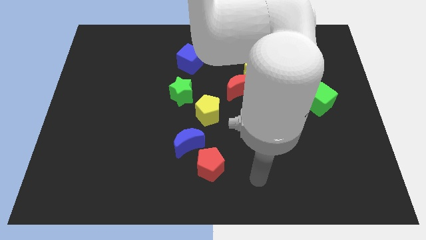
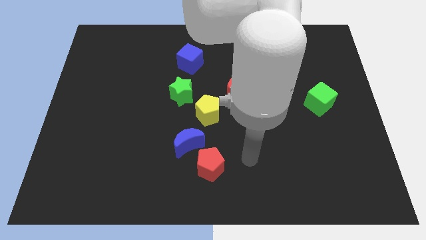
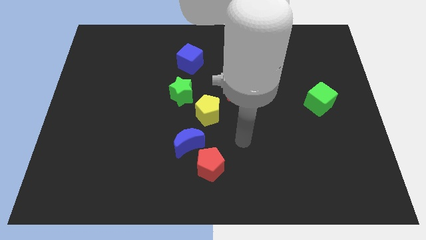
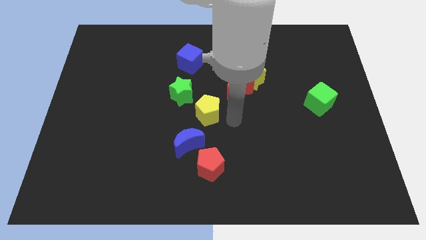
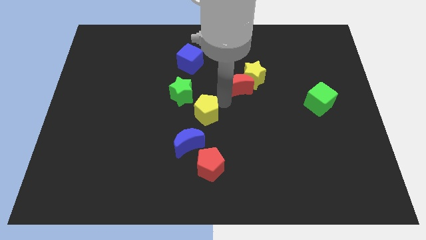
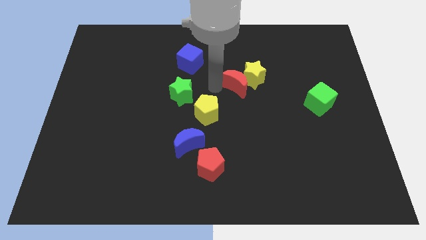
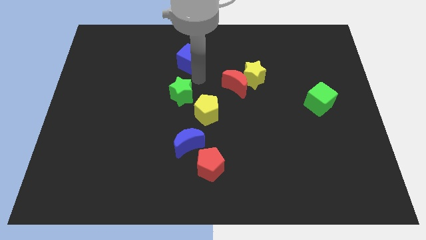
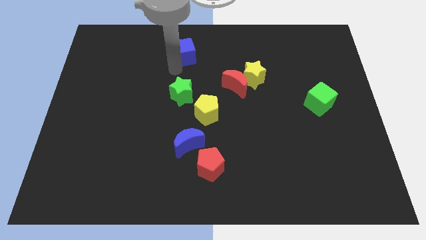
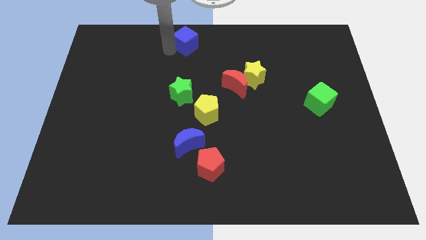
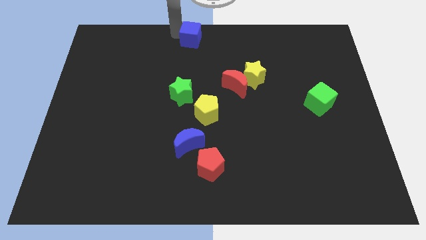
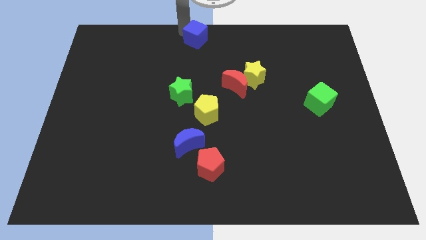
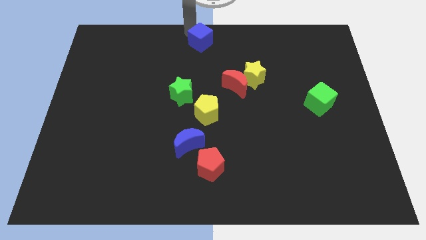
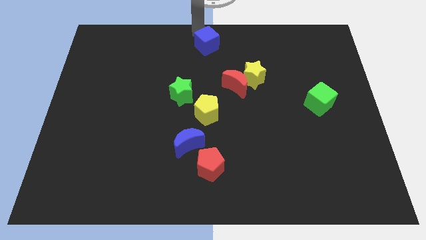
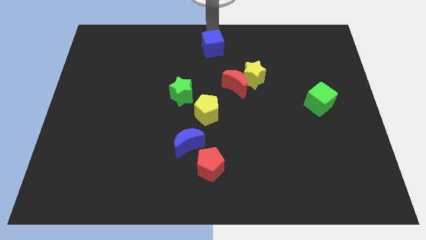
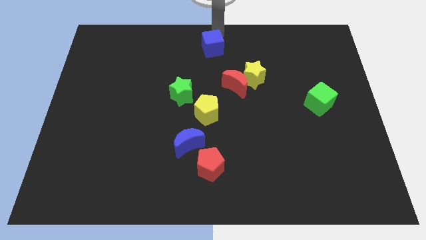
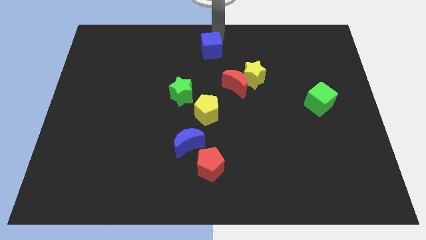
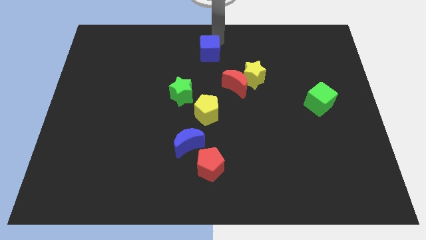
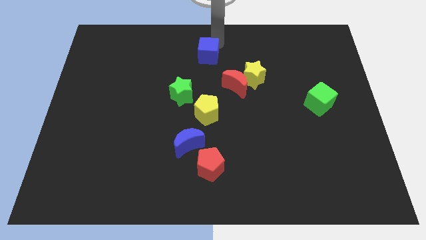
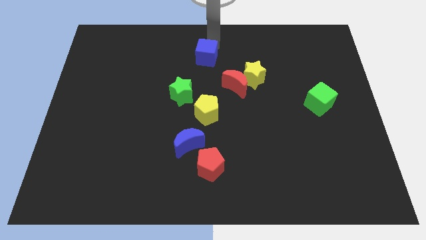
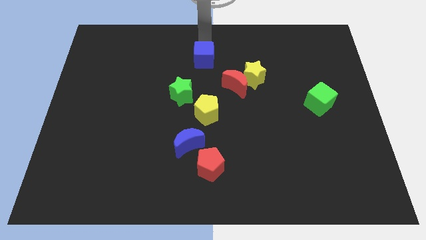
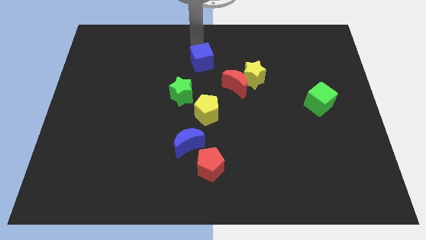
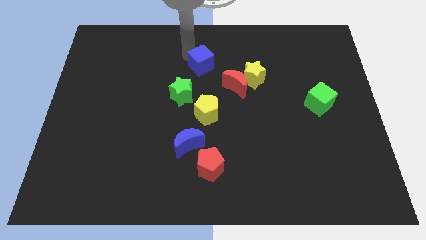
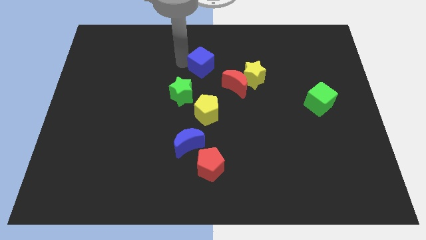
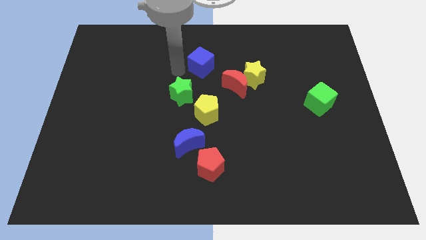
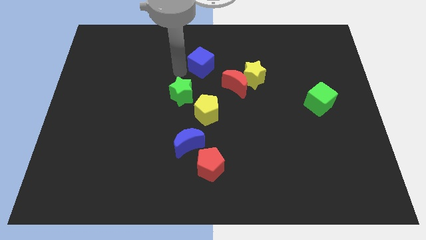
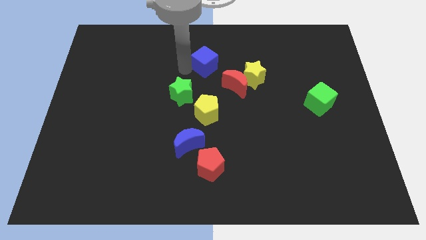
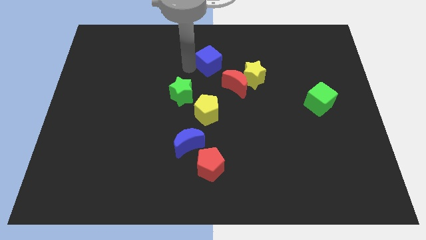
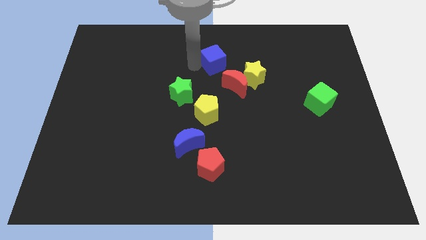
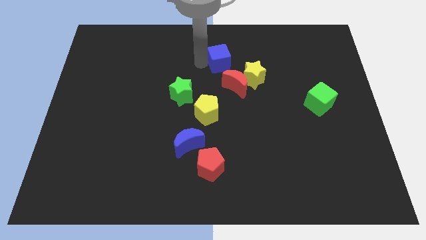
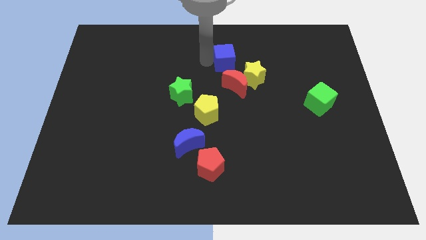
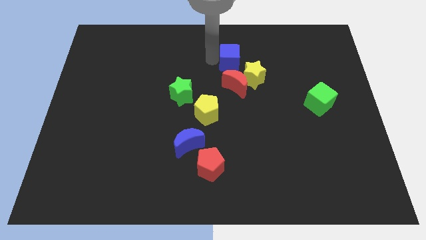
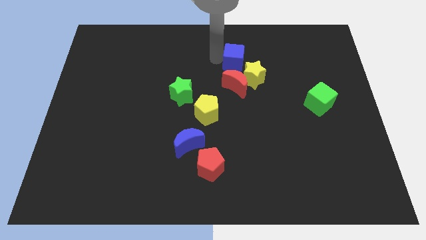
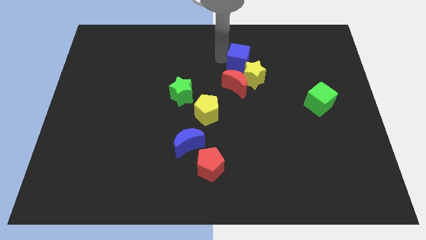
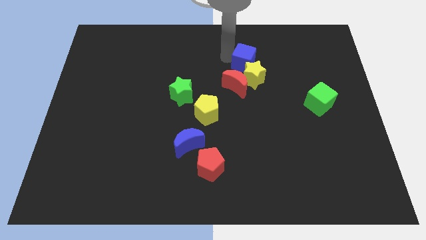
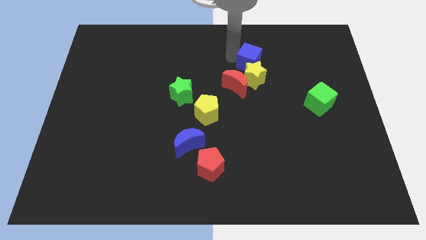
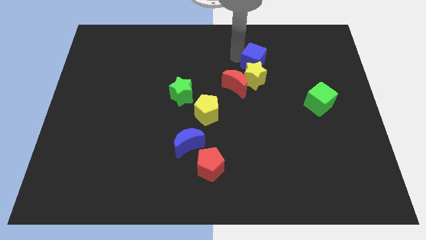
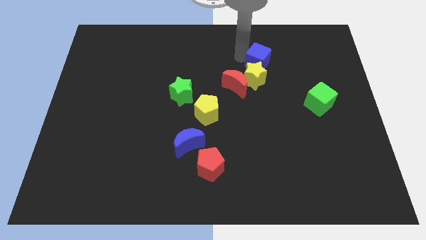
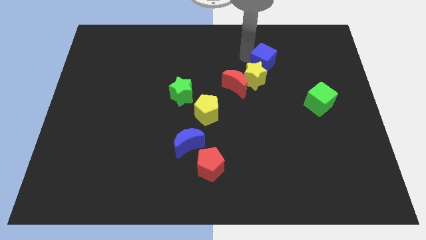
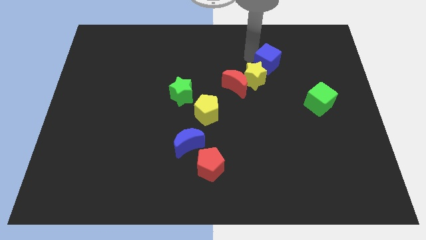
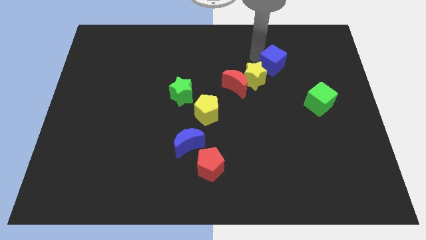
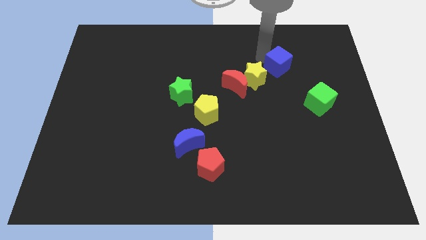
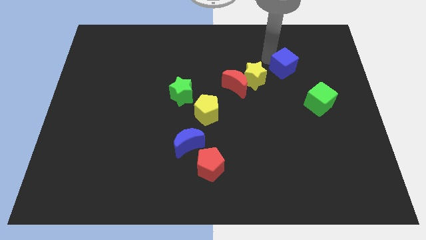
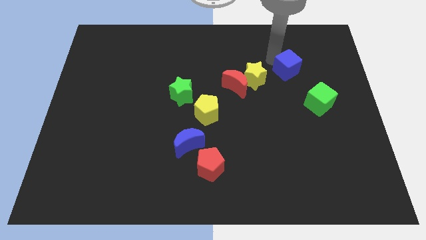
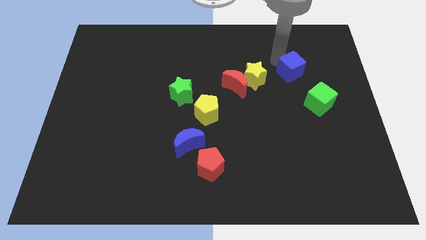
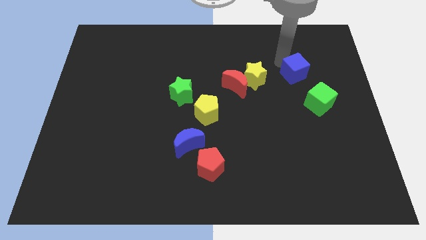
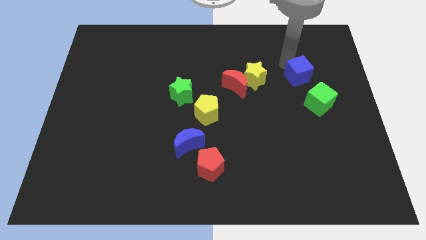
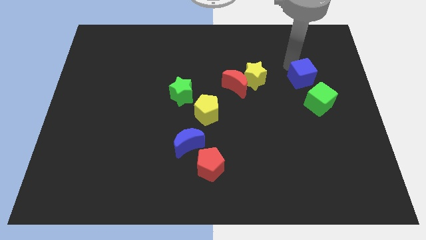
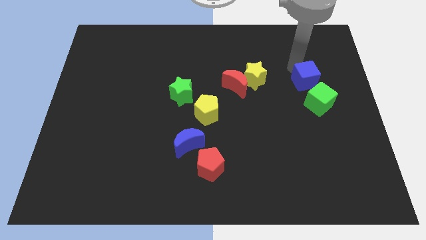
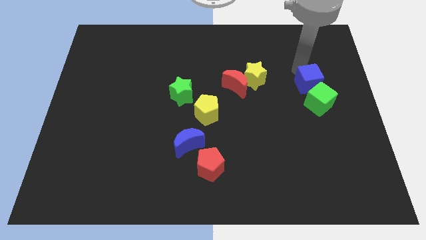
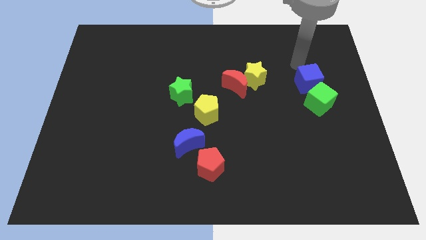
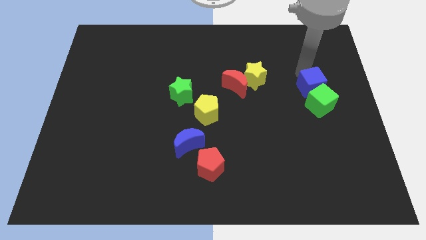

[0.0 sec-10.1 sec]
move the blue cube to the green cube

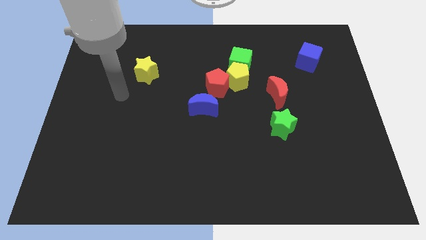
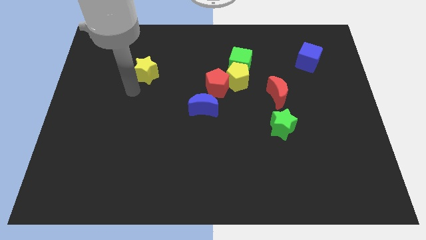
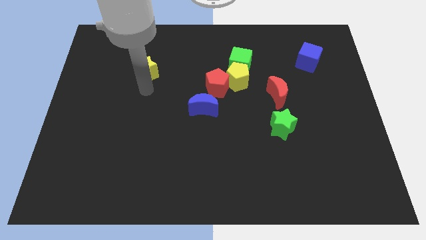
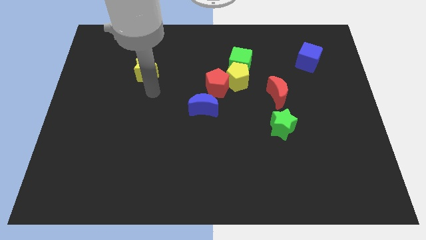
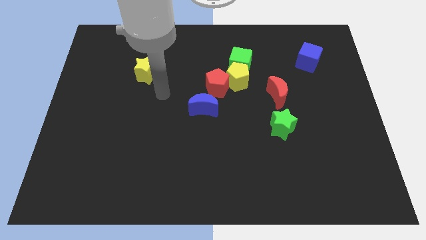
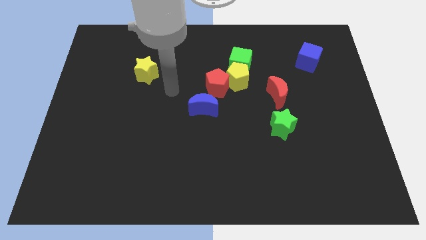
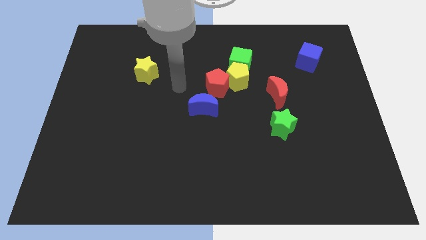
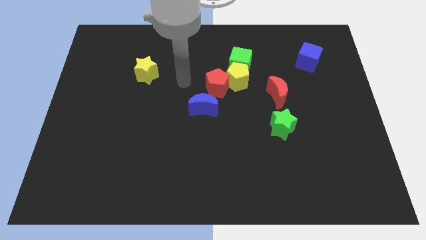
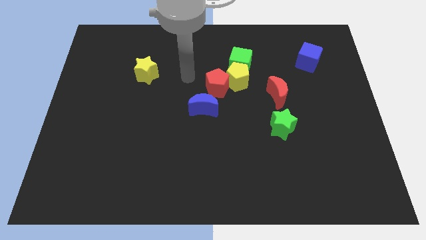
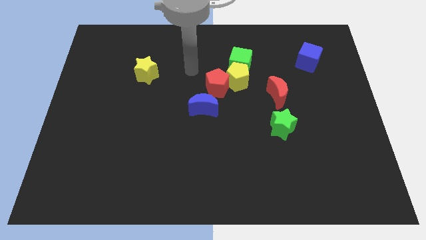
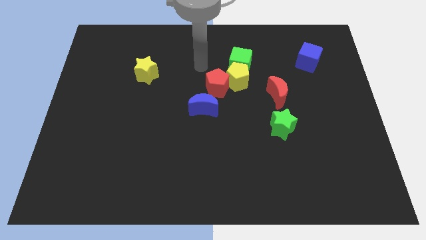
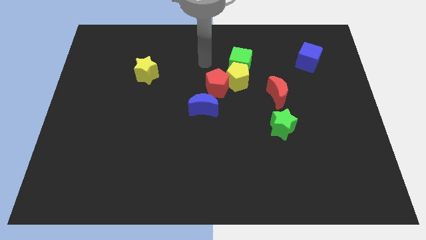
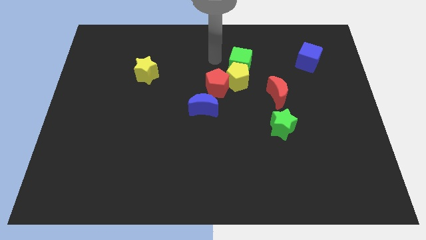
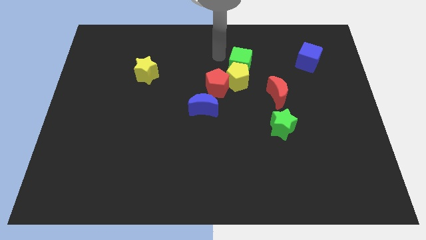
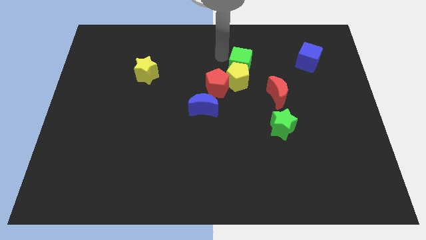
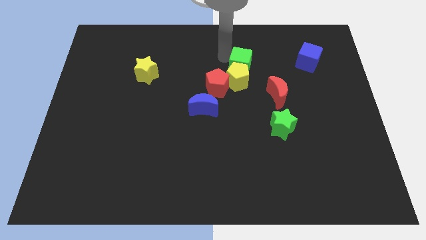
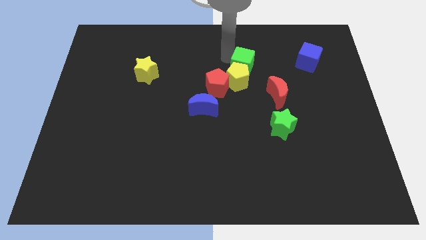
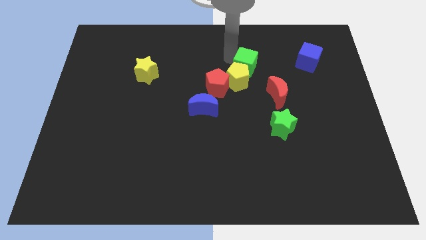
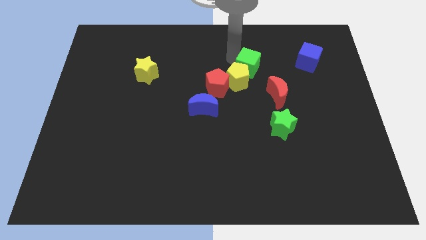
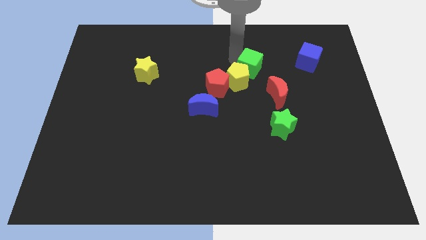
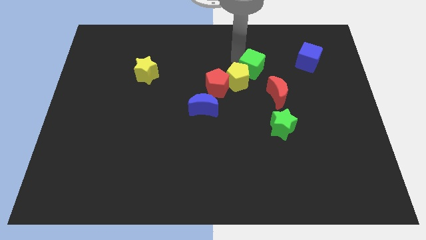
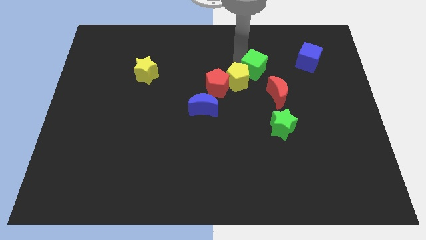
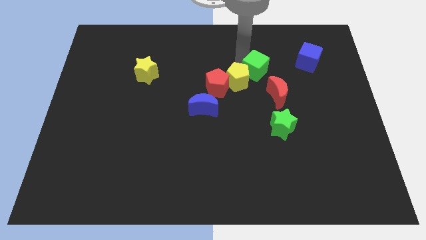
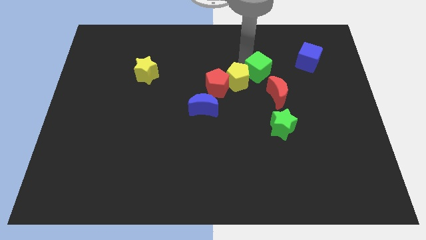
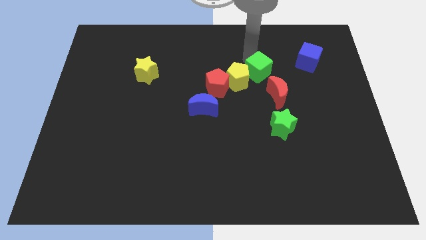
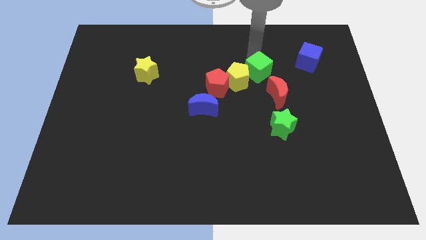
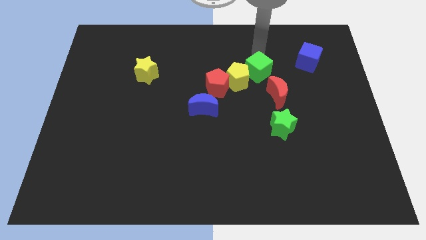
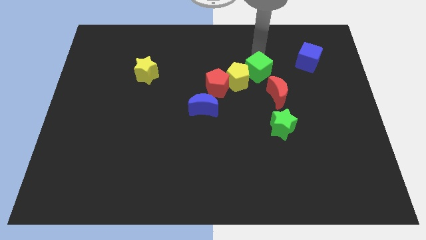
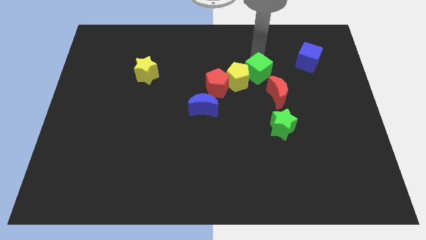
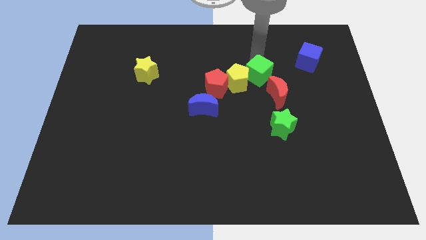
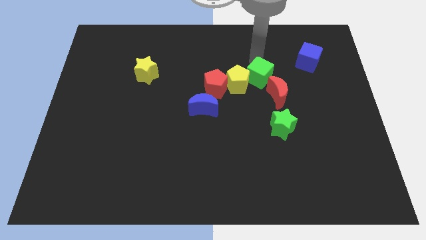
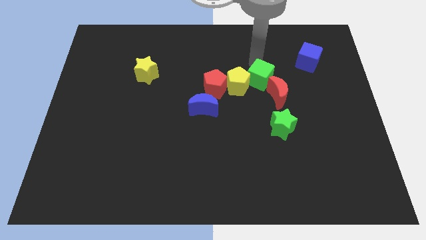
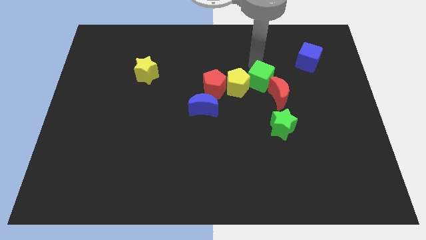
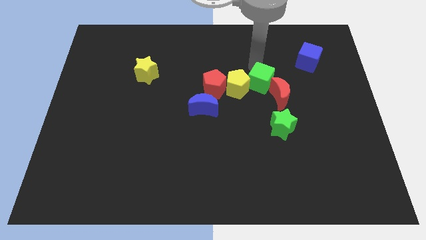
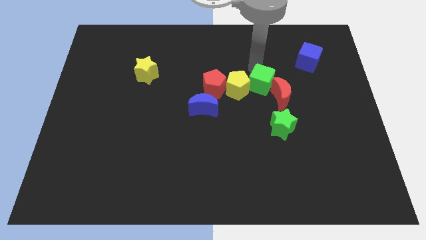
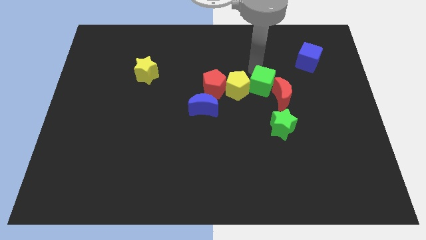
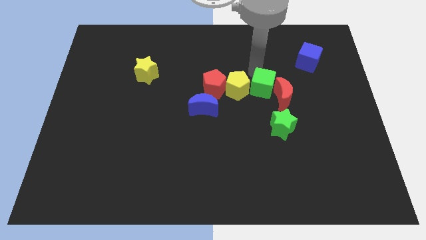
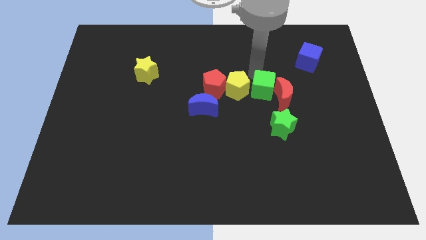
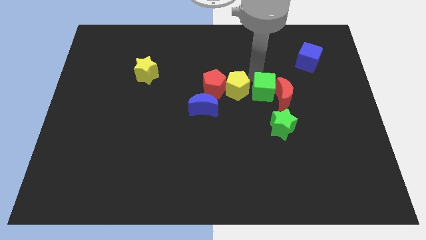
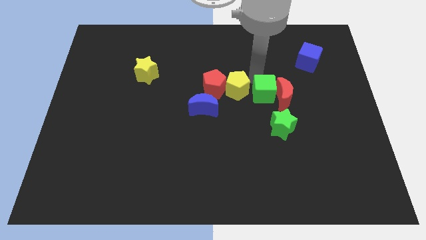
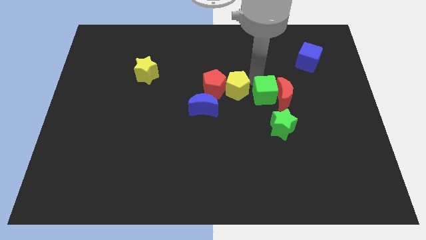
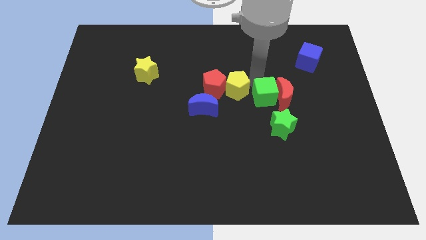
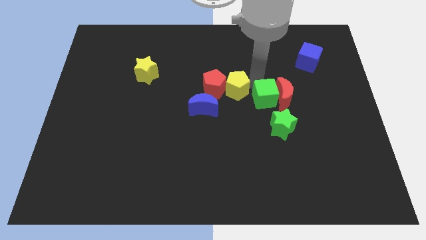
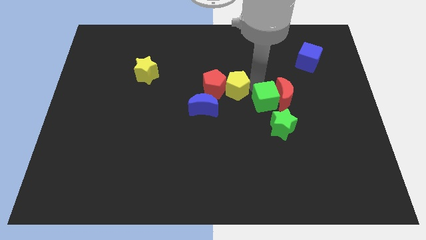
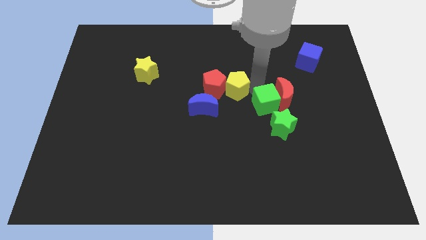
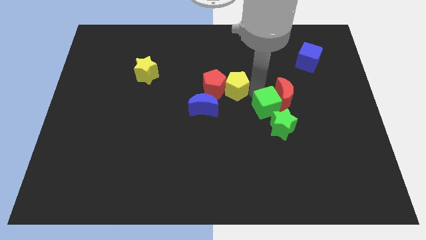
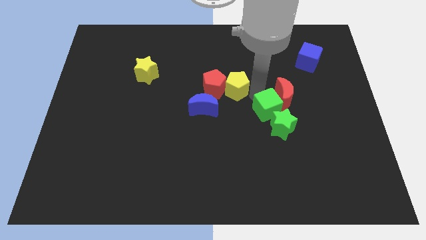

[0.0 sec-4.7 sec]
push the green cube close to the green star
